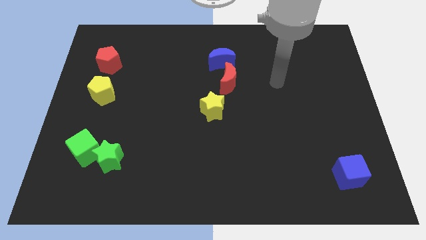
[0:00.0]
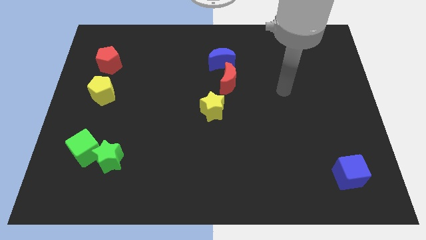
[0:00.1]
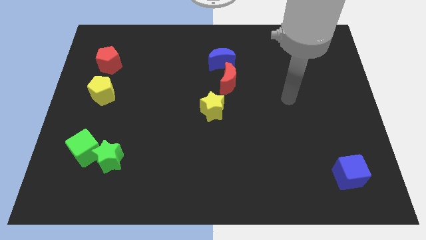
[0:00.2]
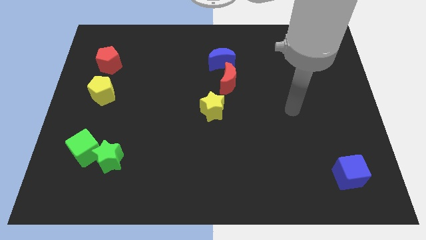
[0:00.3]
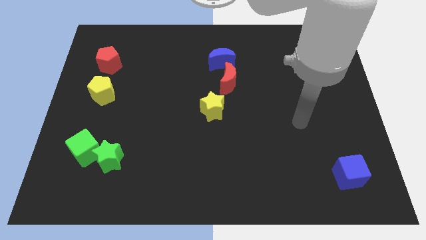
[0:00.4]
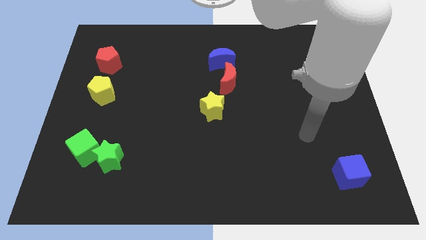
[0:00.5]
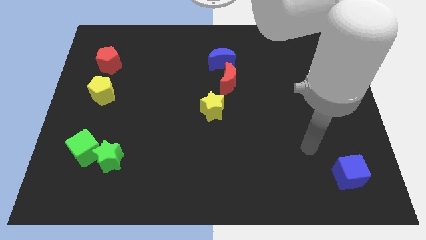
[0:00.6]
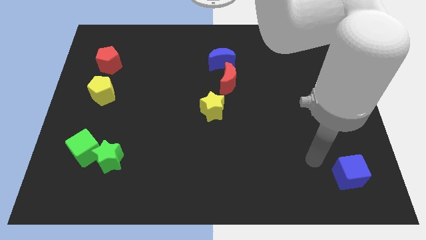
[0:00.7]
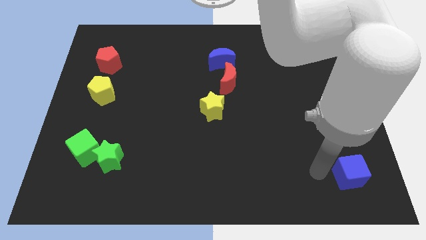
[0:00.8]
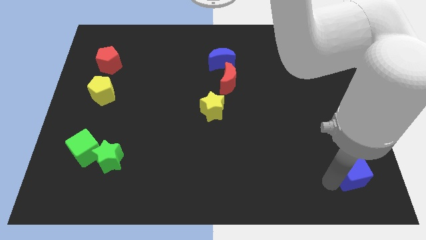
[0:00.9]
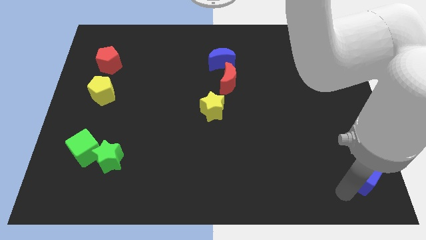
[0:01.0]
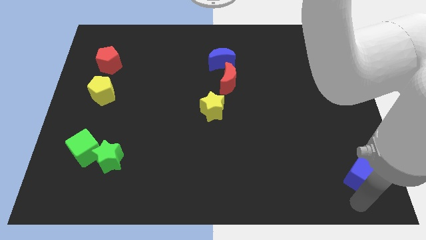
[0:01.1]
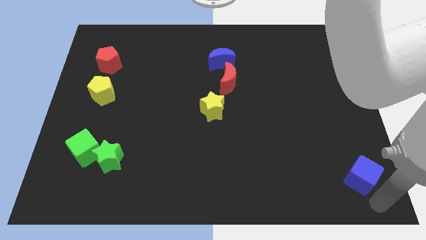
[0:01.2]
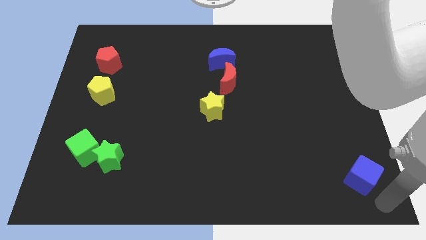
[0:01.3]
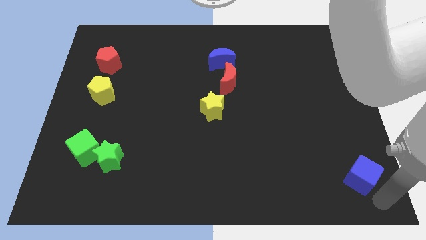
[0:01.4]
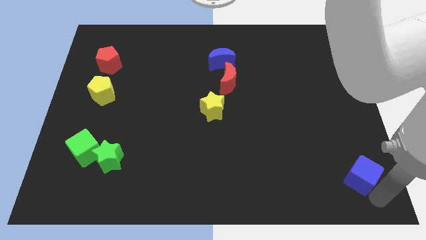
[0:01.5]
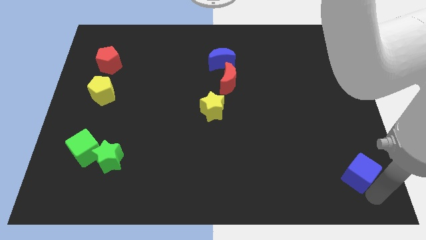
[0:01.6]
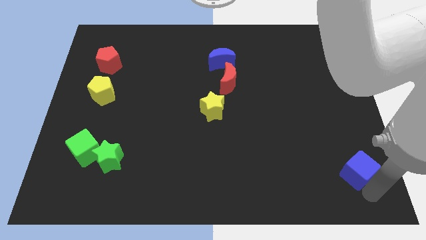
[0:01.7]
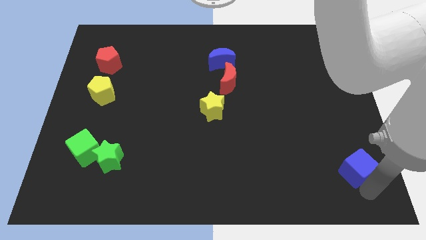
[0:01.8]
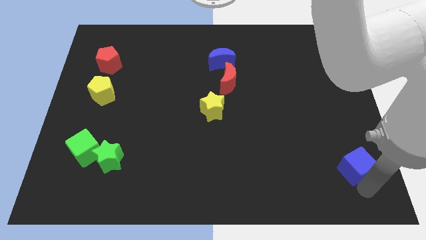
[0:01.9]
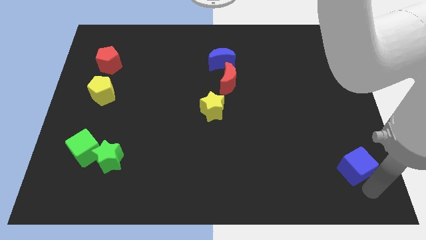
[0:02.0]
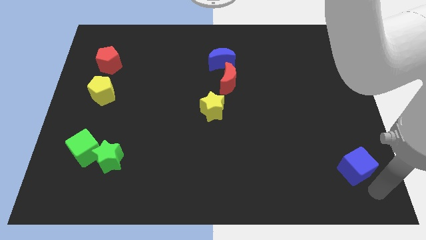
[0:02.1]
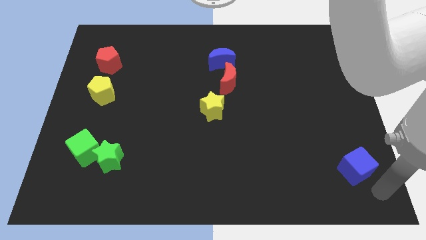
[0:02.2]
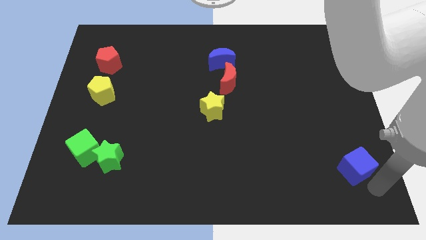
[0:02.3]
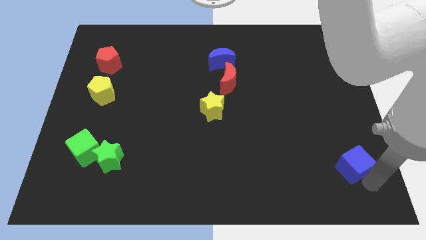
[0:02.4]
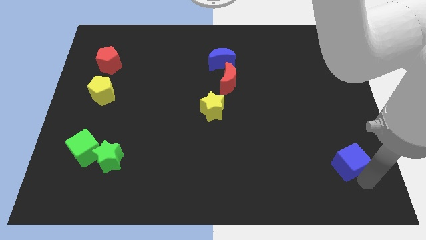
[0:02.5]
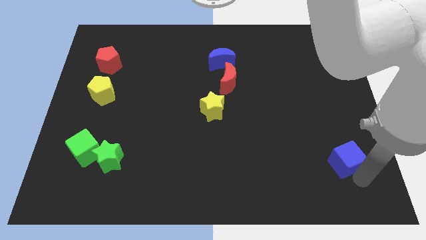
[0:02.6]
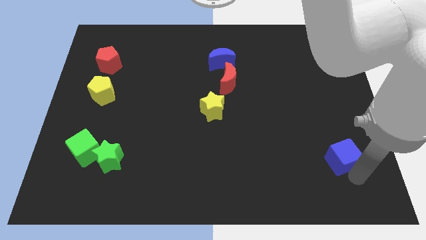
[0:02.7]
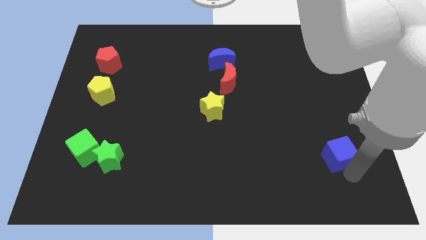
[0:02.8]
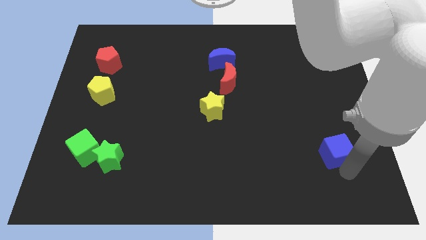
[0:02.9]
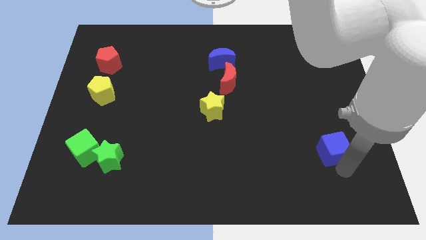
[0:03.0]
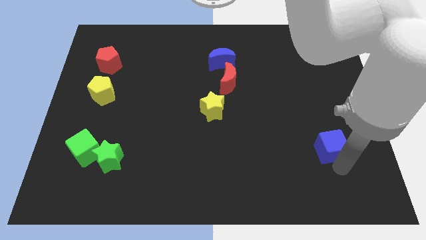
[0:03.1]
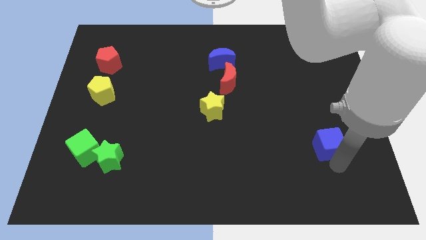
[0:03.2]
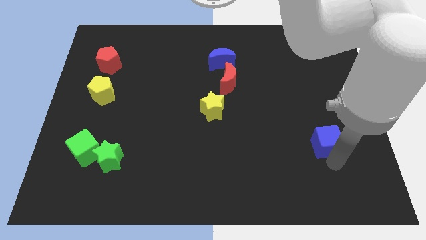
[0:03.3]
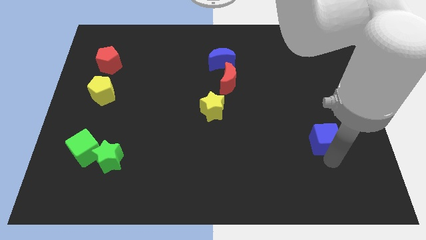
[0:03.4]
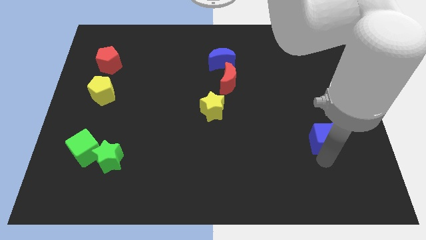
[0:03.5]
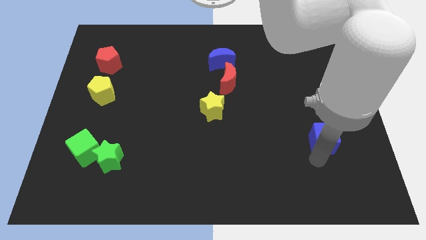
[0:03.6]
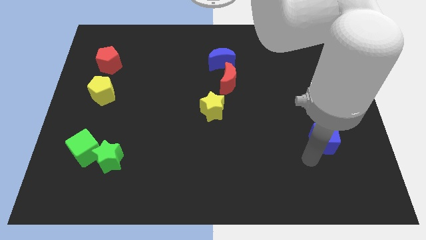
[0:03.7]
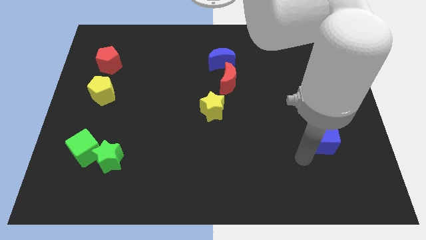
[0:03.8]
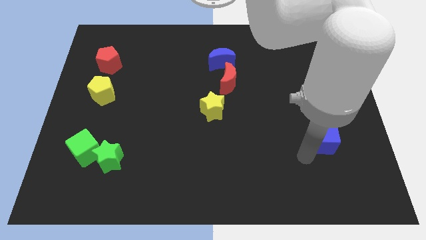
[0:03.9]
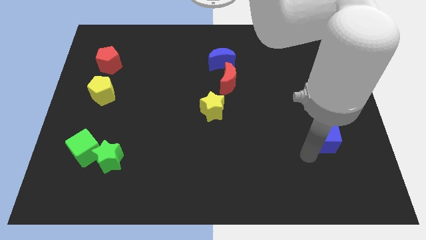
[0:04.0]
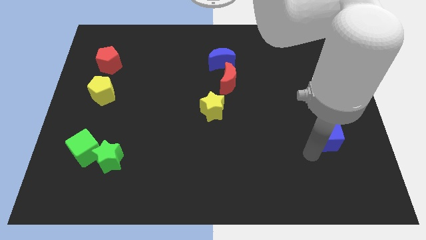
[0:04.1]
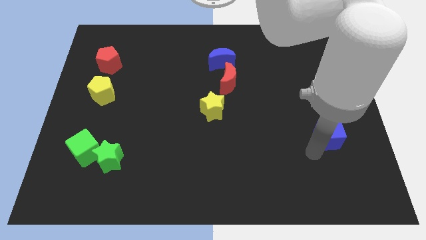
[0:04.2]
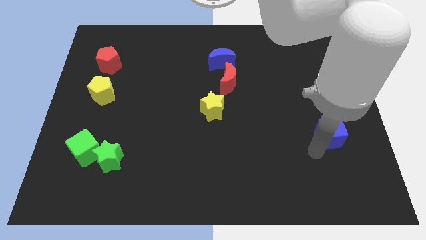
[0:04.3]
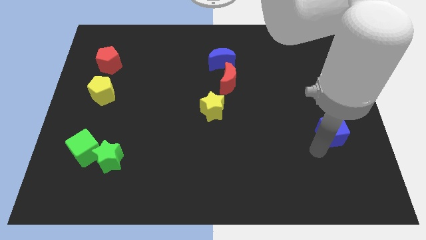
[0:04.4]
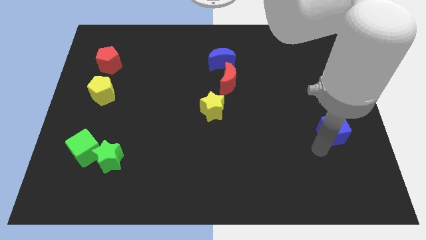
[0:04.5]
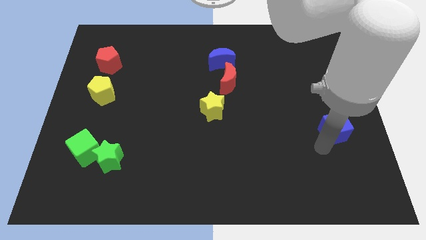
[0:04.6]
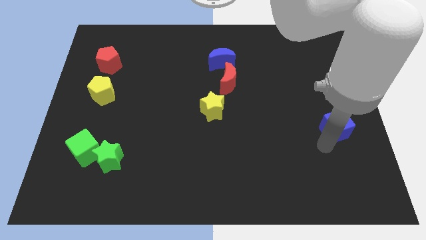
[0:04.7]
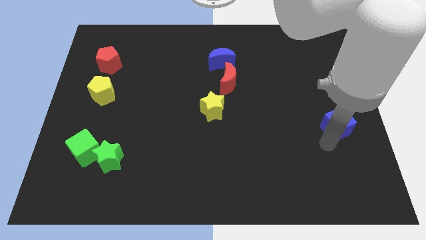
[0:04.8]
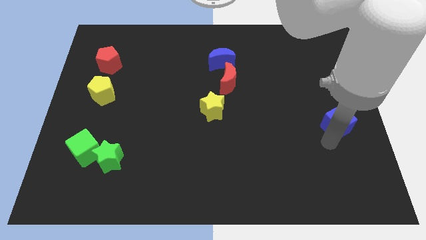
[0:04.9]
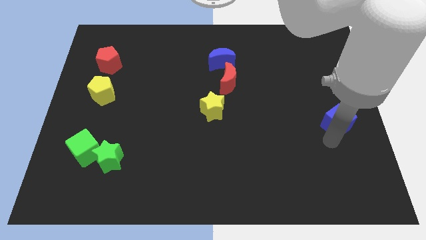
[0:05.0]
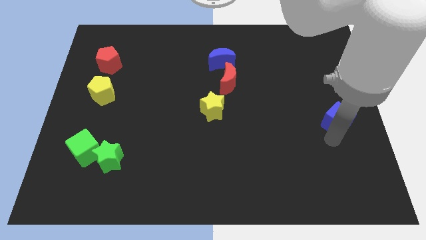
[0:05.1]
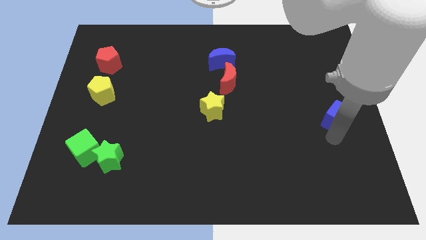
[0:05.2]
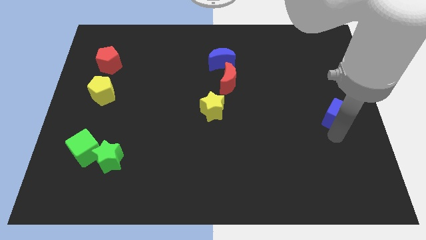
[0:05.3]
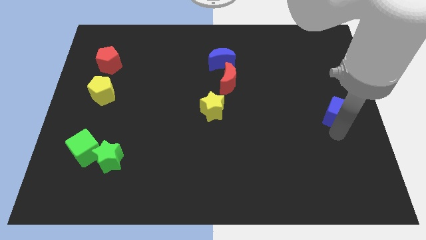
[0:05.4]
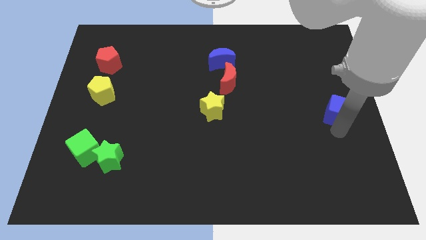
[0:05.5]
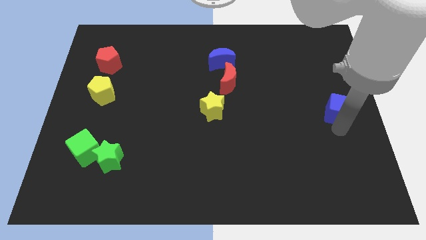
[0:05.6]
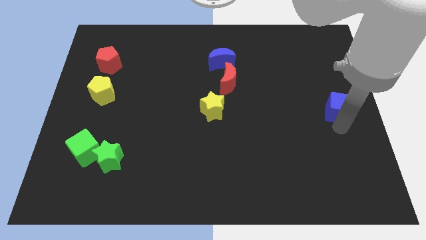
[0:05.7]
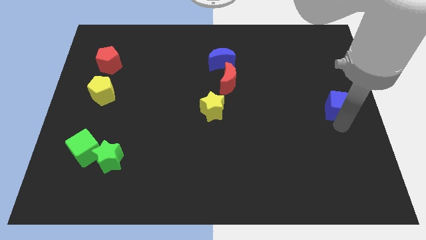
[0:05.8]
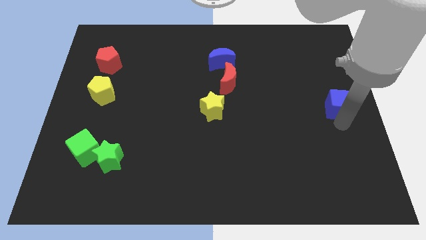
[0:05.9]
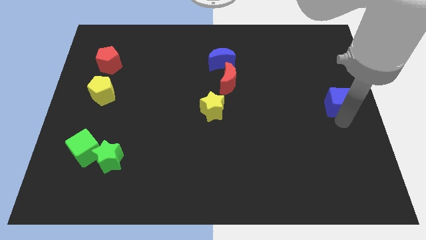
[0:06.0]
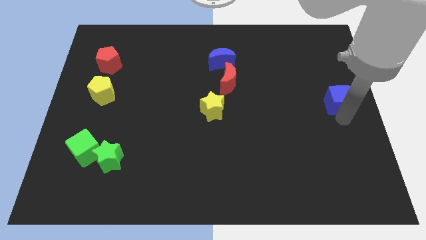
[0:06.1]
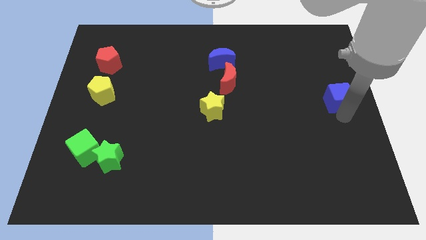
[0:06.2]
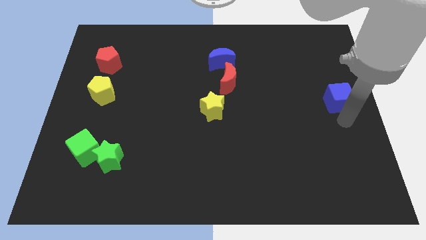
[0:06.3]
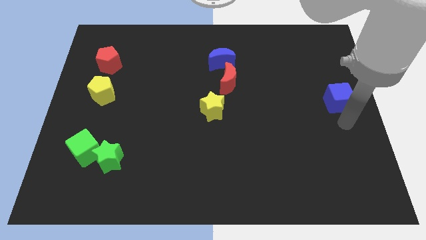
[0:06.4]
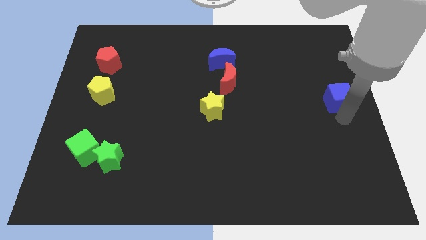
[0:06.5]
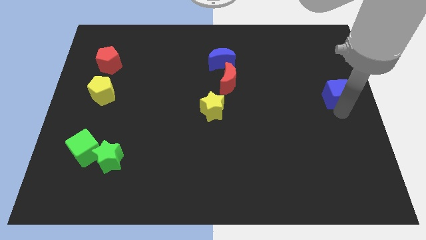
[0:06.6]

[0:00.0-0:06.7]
move the blue cube up

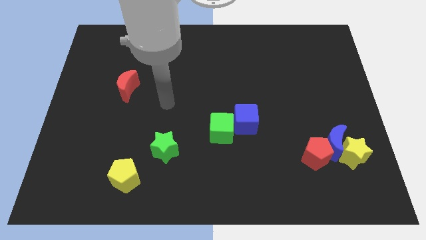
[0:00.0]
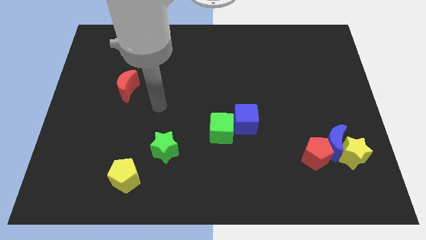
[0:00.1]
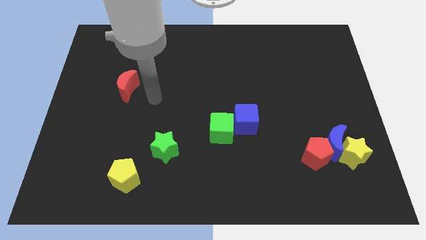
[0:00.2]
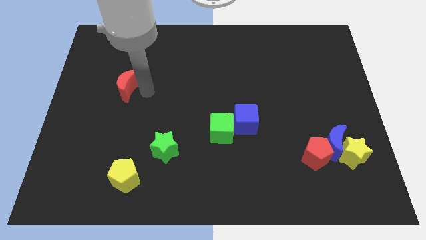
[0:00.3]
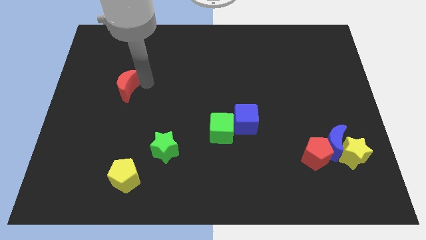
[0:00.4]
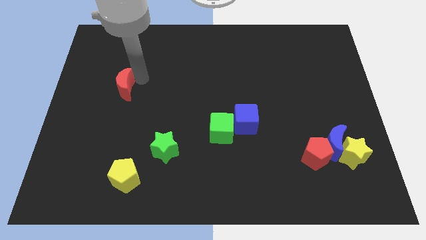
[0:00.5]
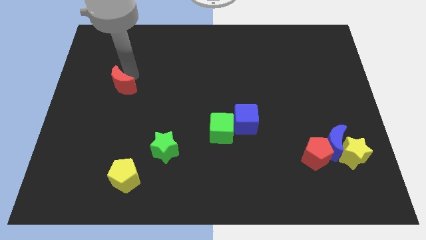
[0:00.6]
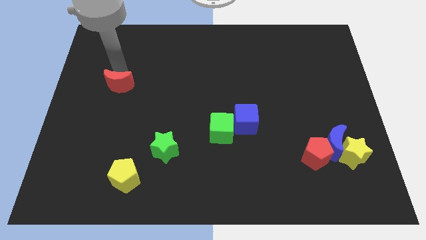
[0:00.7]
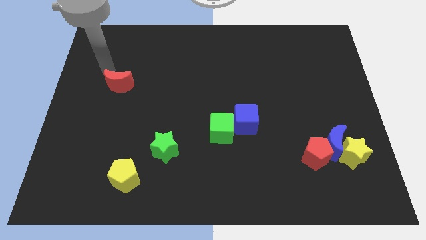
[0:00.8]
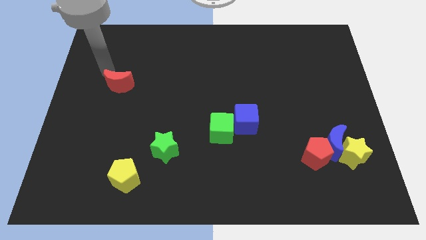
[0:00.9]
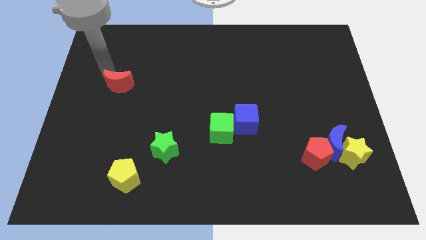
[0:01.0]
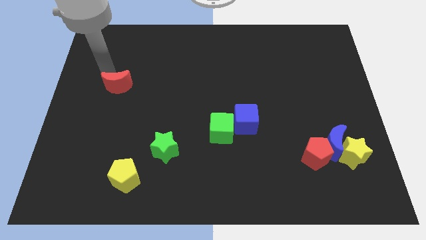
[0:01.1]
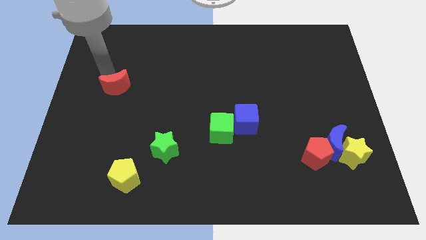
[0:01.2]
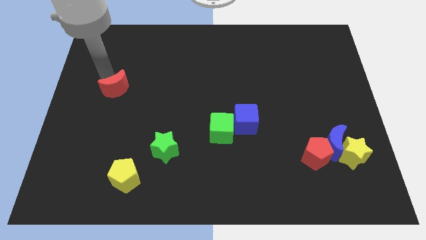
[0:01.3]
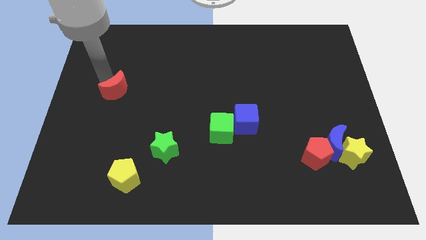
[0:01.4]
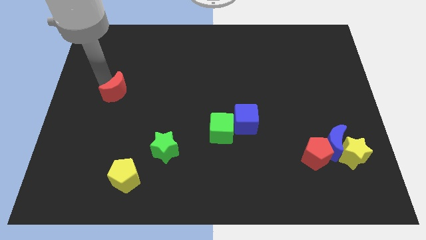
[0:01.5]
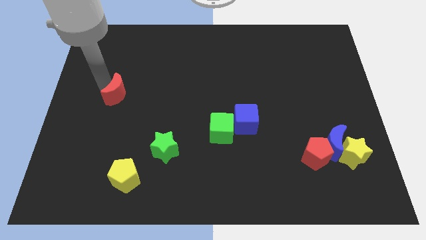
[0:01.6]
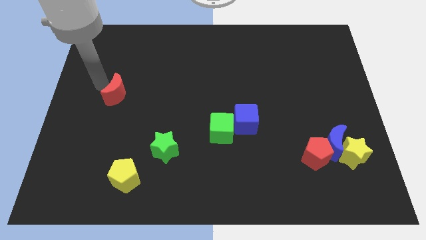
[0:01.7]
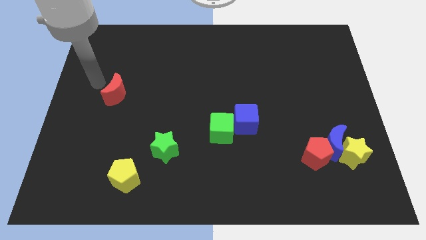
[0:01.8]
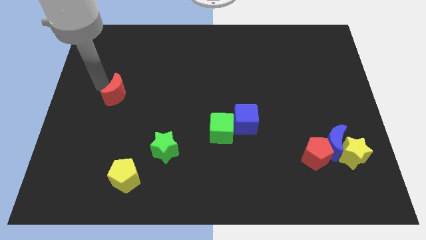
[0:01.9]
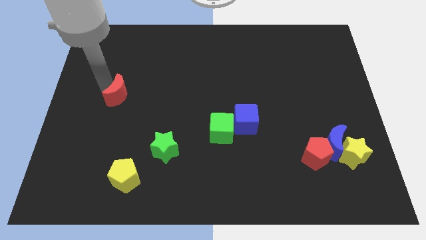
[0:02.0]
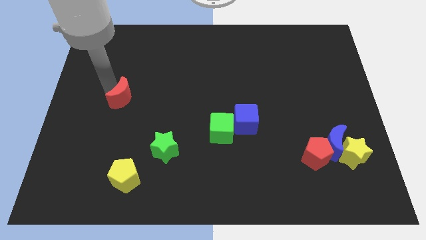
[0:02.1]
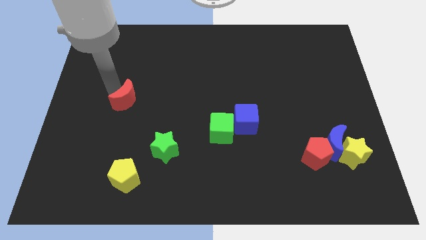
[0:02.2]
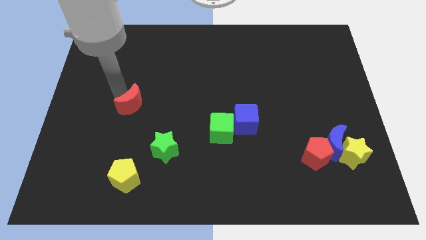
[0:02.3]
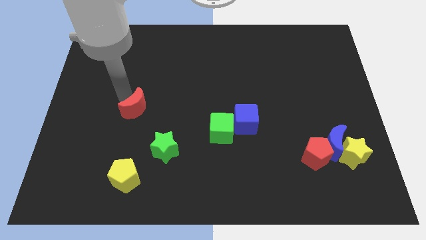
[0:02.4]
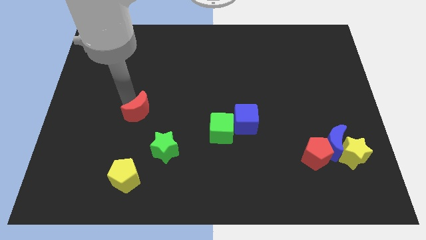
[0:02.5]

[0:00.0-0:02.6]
move the red moon a bit down and right diagonally
